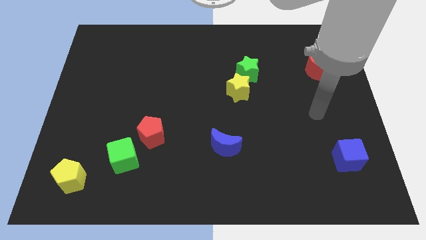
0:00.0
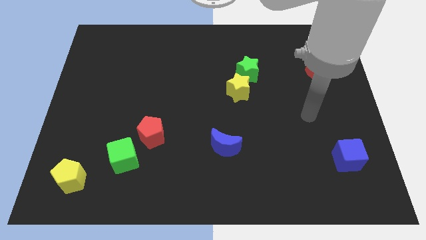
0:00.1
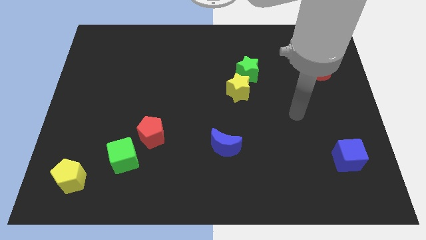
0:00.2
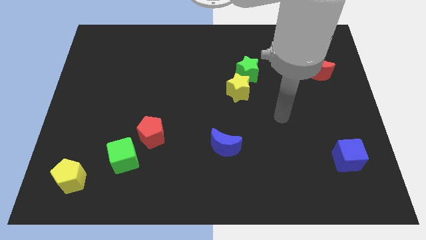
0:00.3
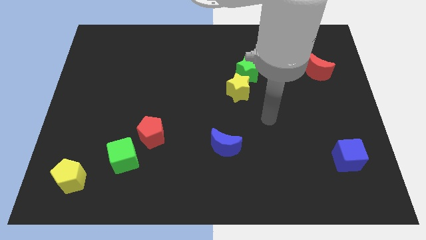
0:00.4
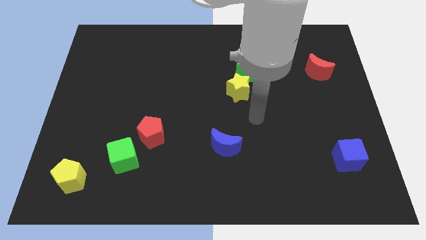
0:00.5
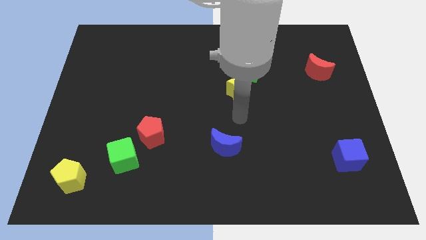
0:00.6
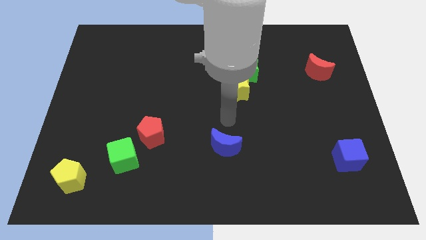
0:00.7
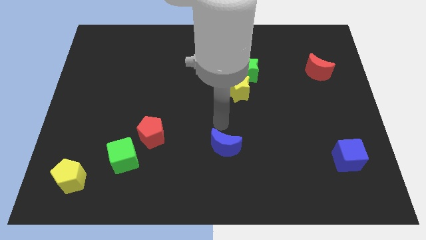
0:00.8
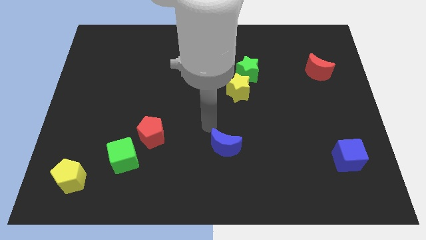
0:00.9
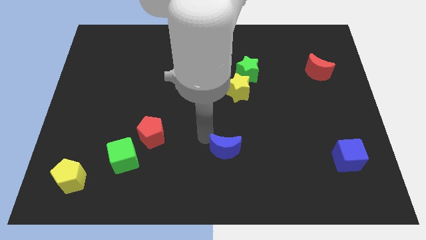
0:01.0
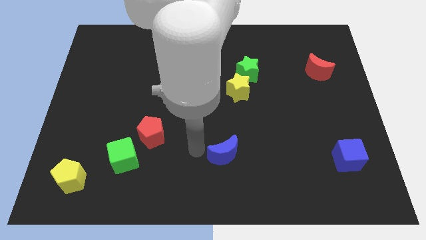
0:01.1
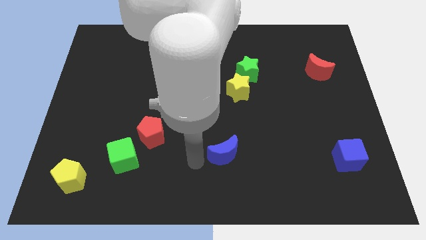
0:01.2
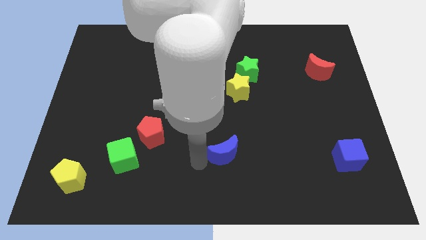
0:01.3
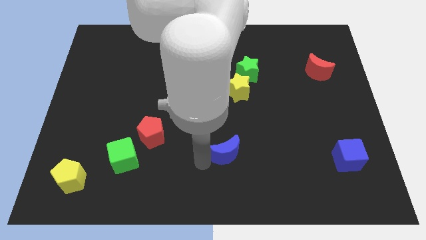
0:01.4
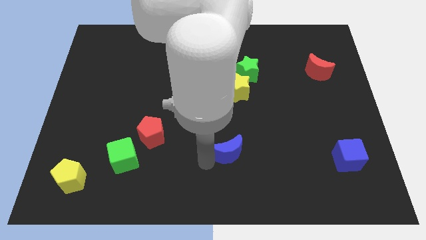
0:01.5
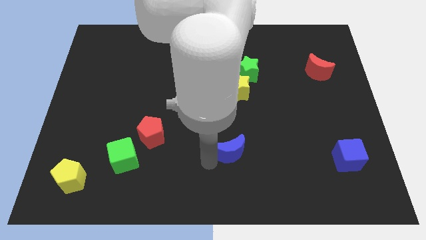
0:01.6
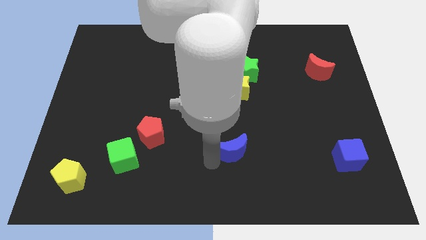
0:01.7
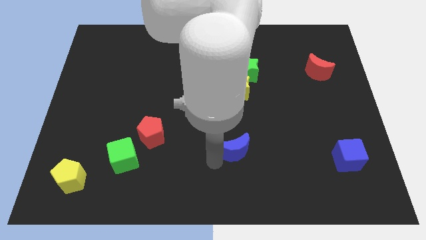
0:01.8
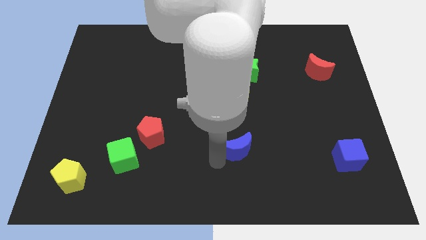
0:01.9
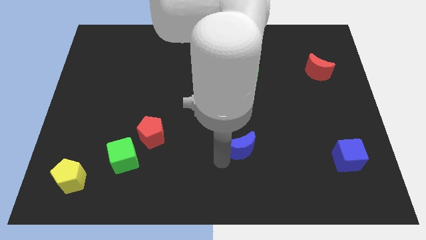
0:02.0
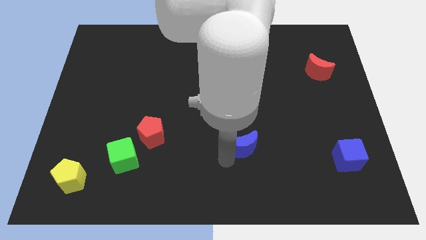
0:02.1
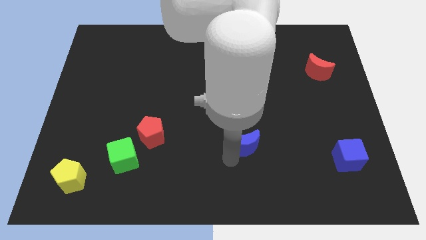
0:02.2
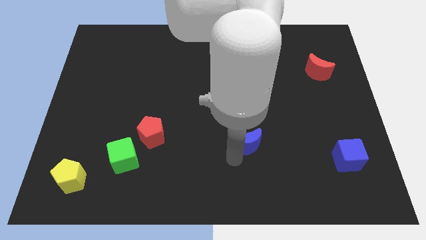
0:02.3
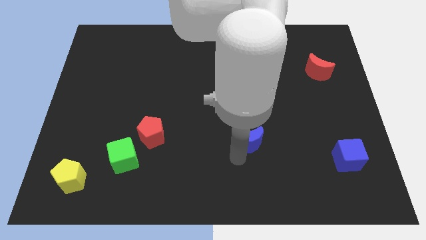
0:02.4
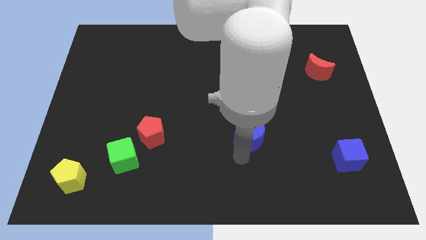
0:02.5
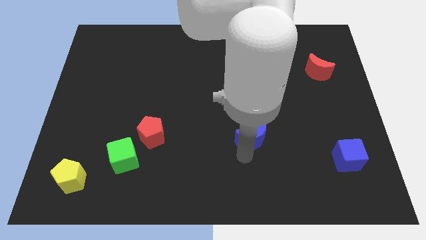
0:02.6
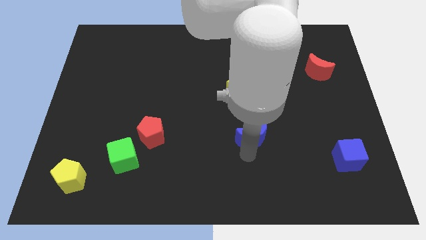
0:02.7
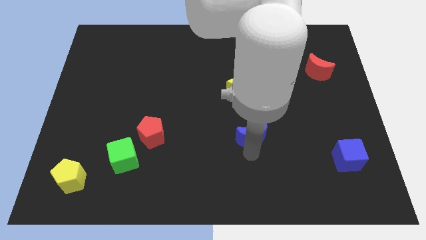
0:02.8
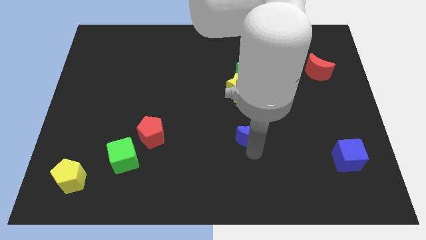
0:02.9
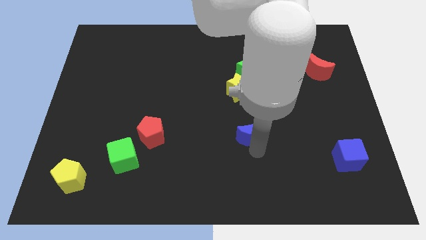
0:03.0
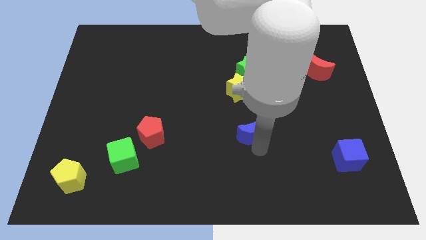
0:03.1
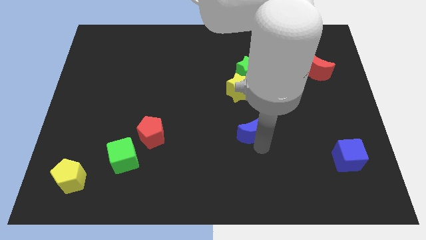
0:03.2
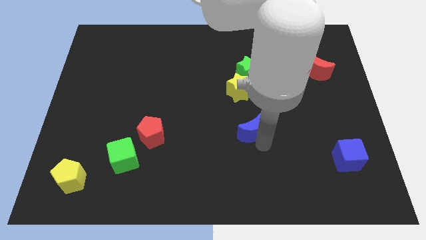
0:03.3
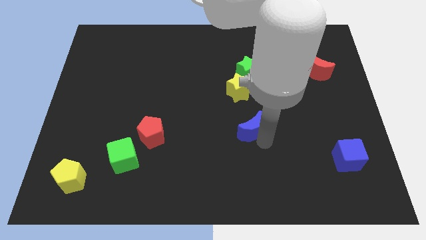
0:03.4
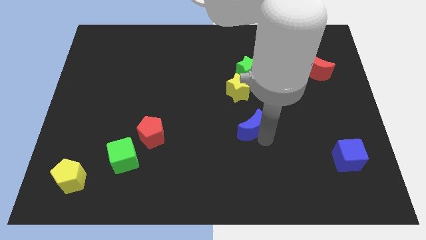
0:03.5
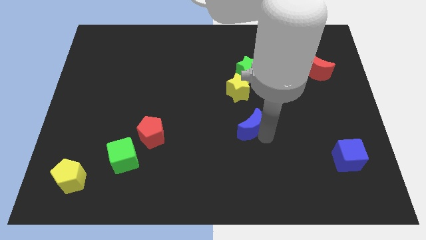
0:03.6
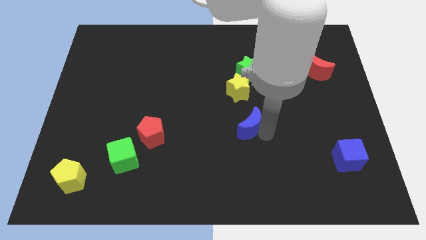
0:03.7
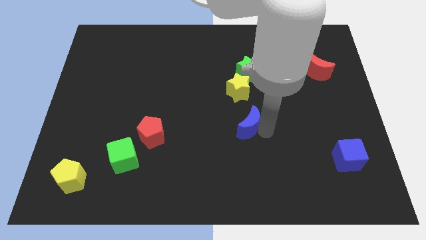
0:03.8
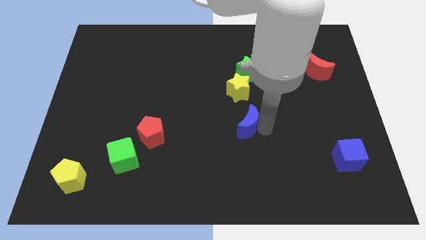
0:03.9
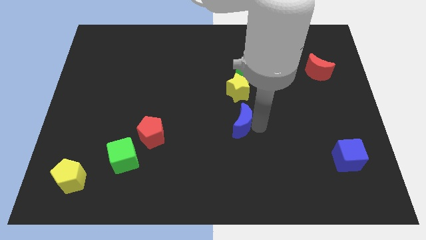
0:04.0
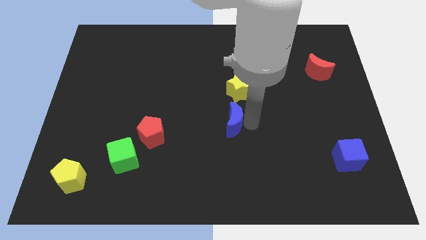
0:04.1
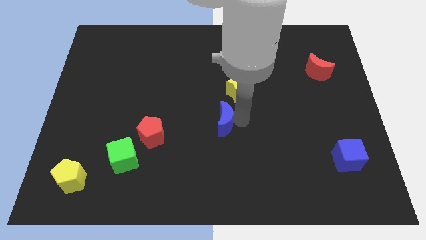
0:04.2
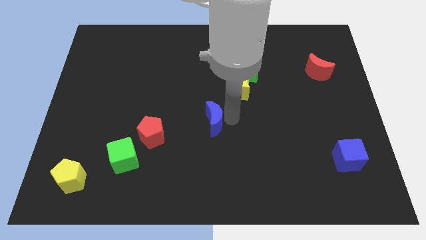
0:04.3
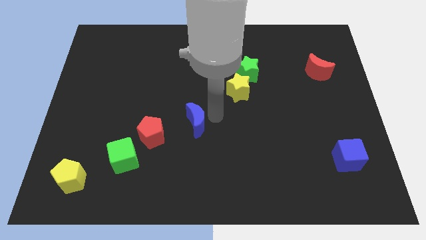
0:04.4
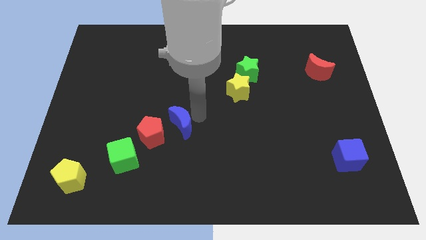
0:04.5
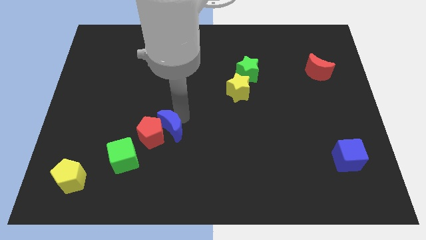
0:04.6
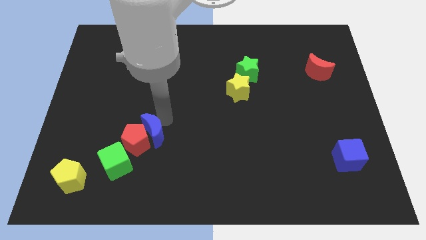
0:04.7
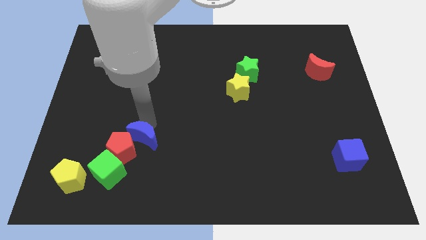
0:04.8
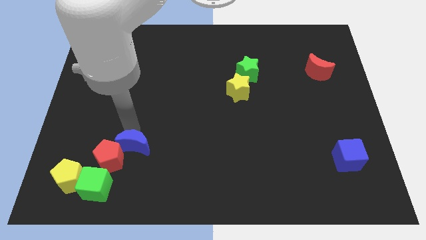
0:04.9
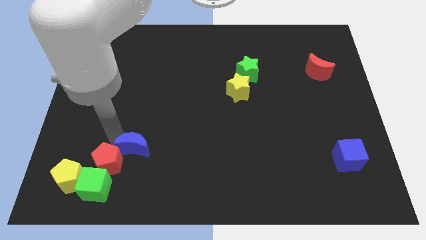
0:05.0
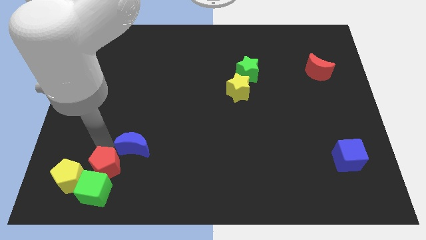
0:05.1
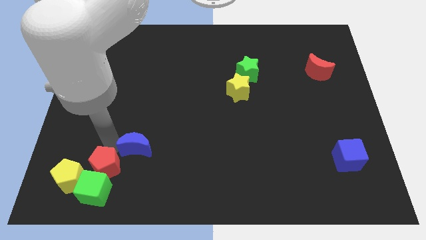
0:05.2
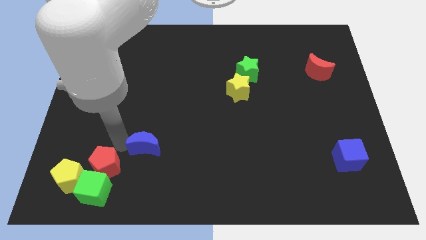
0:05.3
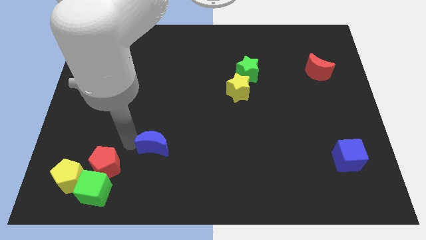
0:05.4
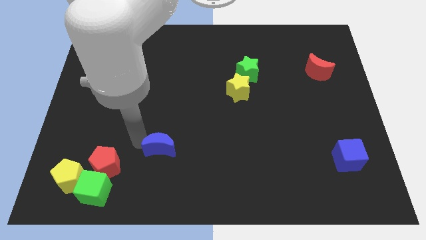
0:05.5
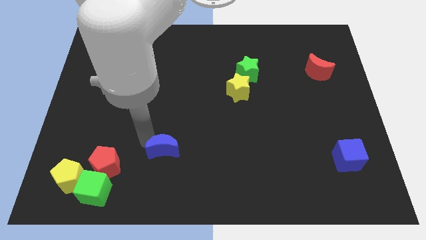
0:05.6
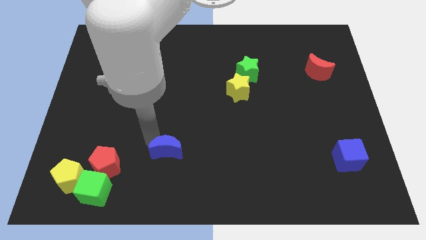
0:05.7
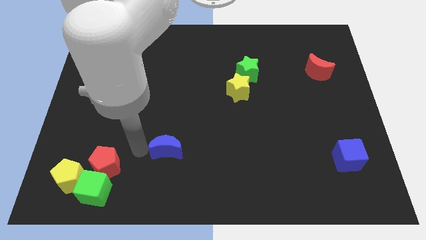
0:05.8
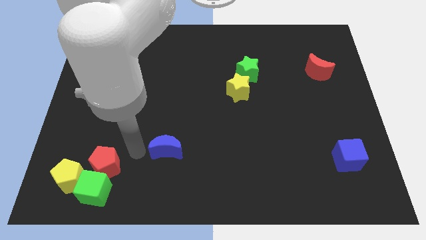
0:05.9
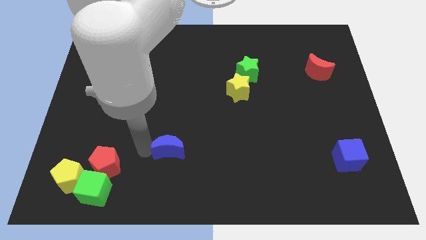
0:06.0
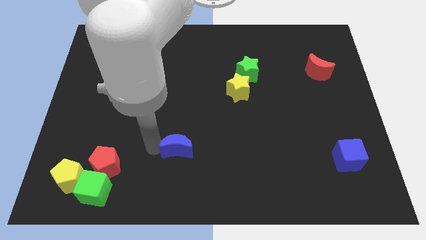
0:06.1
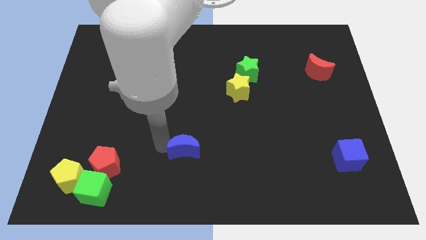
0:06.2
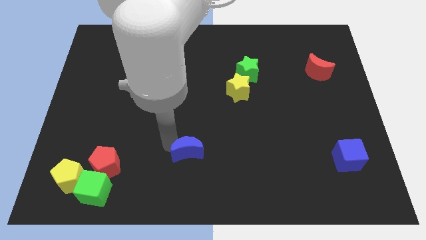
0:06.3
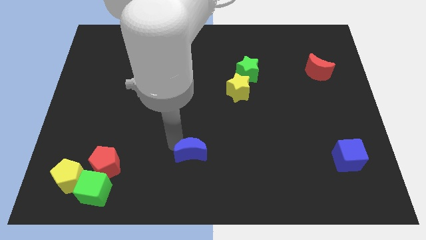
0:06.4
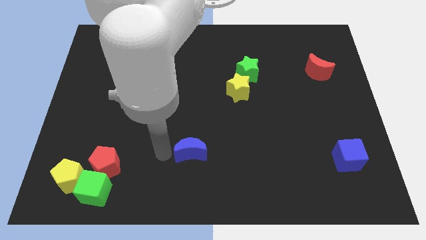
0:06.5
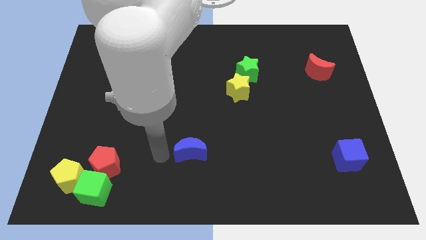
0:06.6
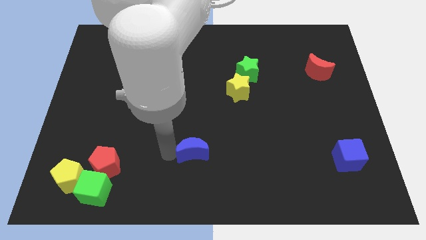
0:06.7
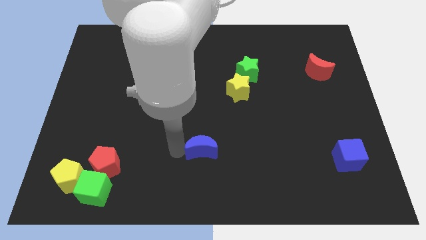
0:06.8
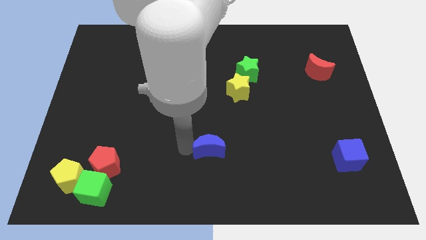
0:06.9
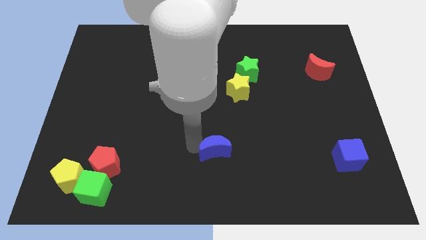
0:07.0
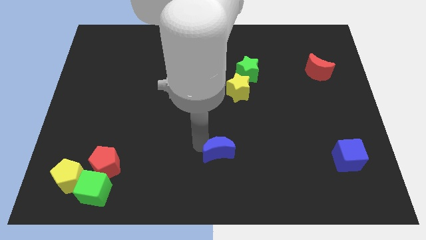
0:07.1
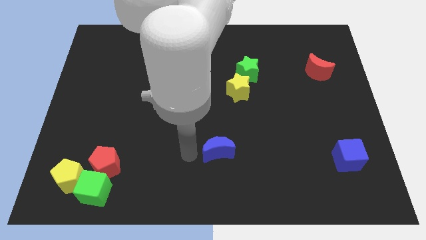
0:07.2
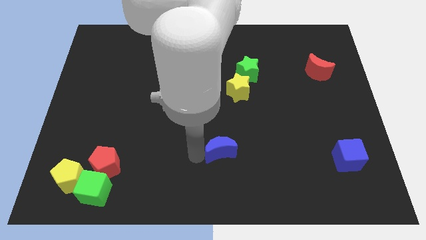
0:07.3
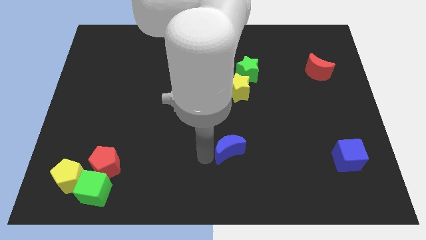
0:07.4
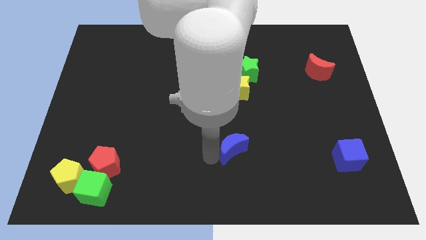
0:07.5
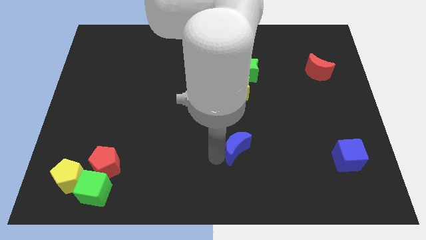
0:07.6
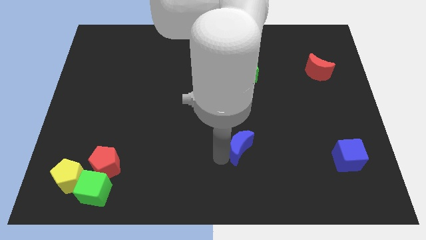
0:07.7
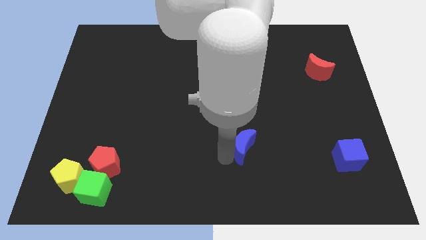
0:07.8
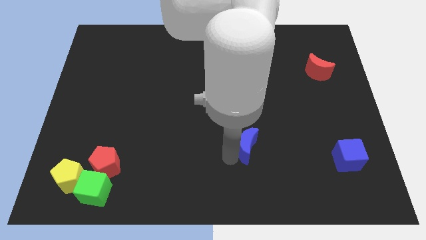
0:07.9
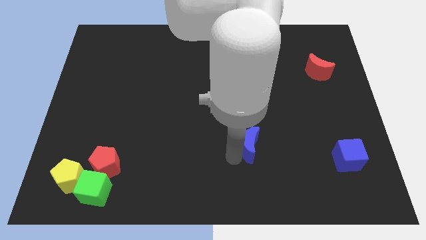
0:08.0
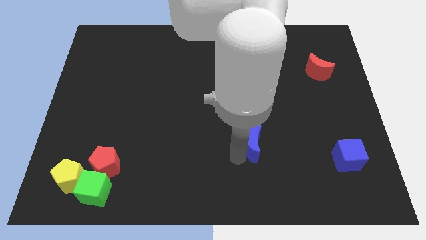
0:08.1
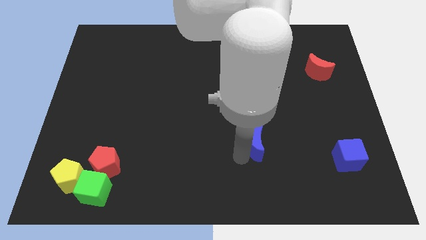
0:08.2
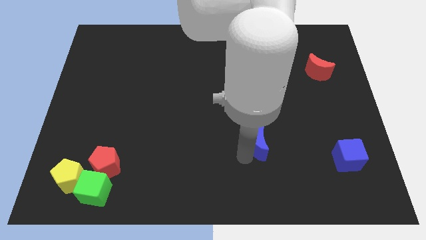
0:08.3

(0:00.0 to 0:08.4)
push the blue moon a bit to the right
